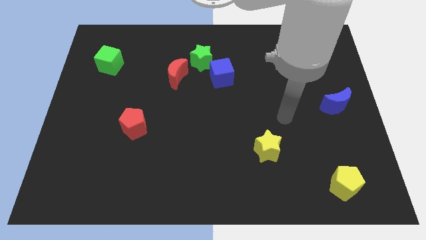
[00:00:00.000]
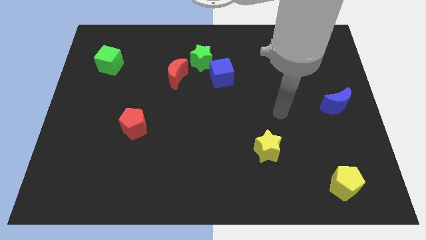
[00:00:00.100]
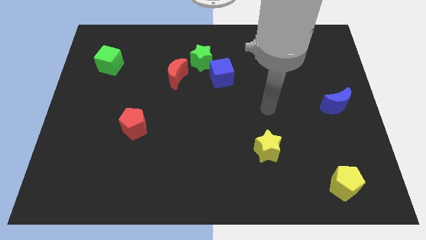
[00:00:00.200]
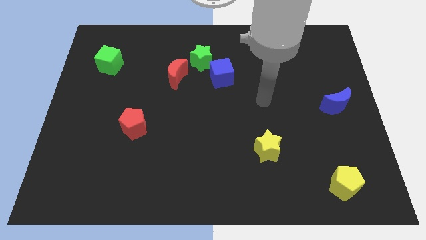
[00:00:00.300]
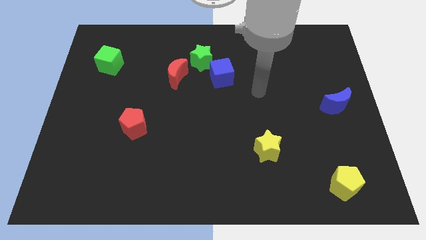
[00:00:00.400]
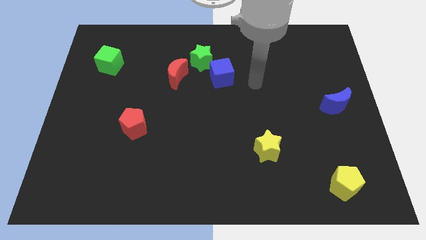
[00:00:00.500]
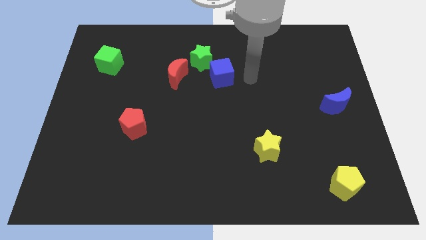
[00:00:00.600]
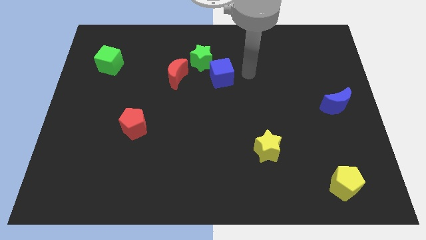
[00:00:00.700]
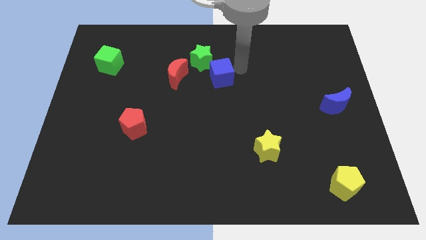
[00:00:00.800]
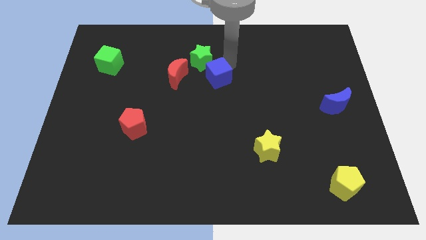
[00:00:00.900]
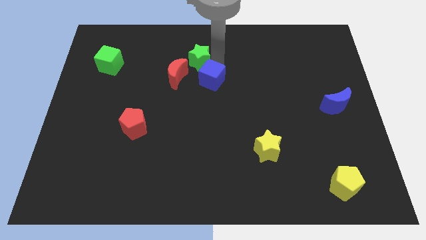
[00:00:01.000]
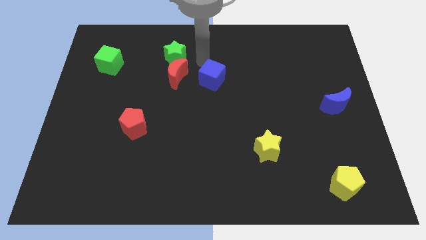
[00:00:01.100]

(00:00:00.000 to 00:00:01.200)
pull the blue cube apart from the green star

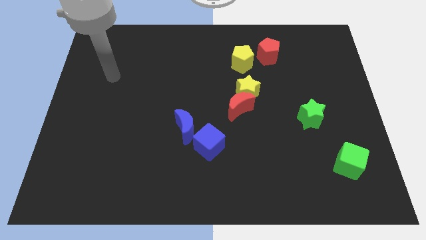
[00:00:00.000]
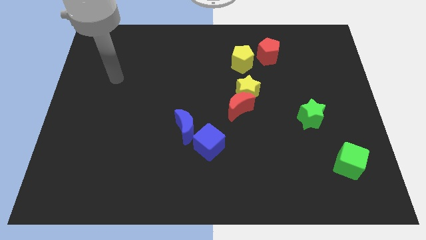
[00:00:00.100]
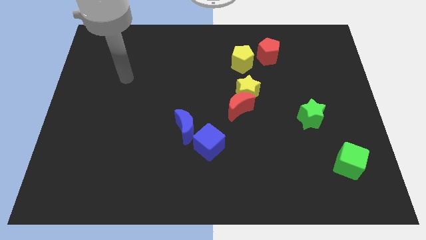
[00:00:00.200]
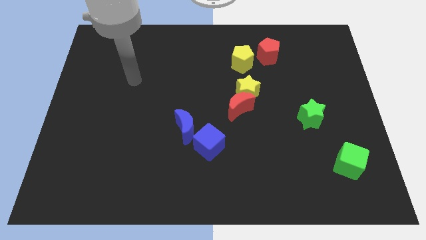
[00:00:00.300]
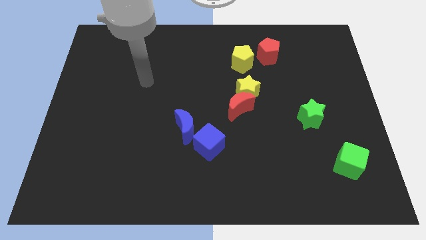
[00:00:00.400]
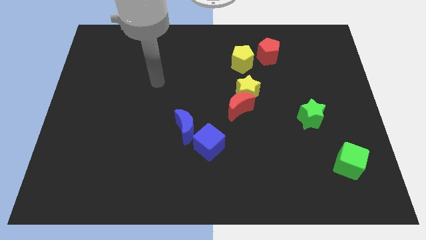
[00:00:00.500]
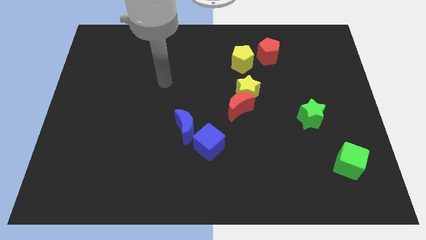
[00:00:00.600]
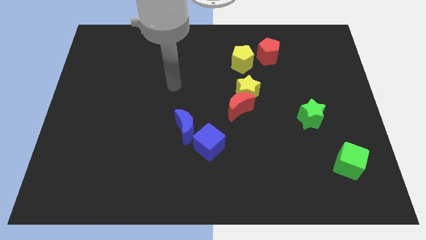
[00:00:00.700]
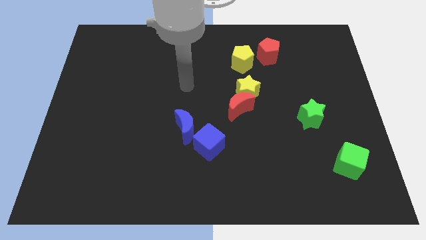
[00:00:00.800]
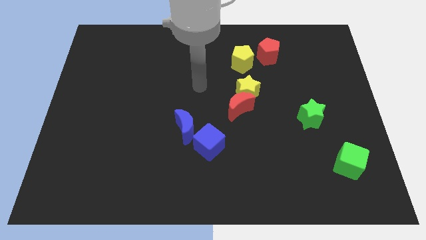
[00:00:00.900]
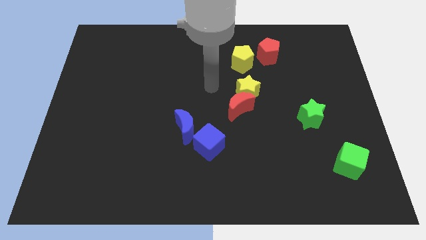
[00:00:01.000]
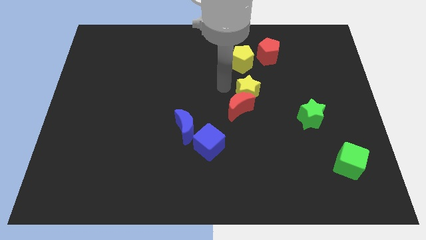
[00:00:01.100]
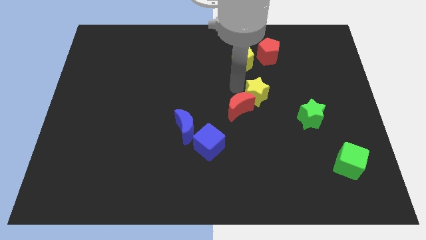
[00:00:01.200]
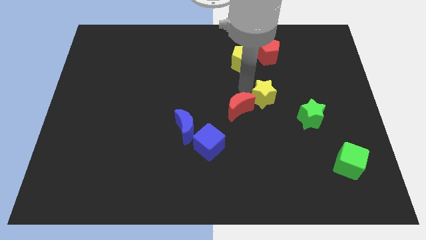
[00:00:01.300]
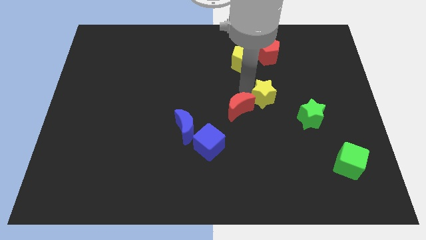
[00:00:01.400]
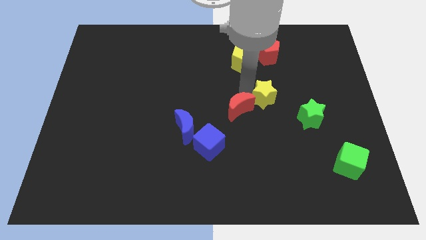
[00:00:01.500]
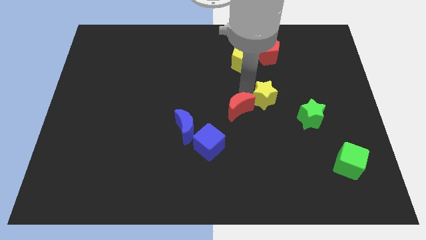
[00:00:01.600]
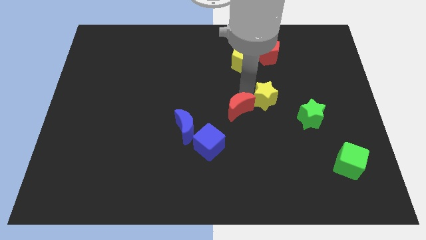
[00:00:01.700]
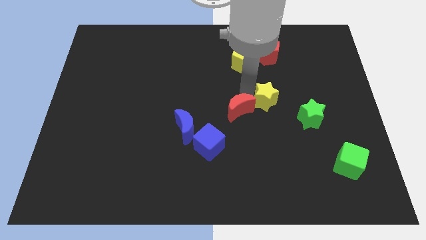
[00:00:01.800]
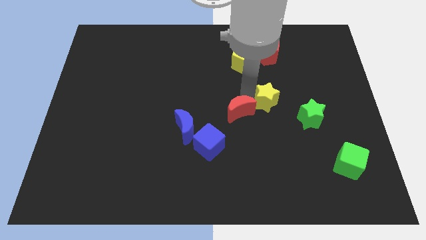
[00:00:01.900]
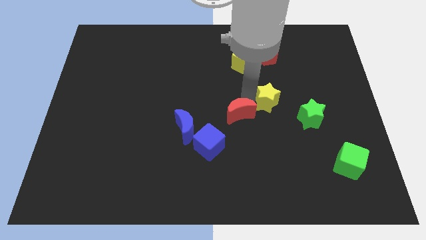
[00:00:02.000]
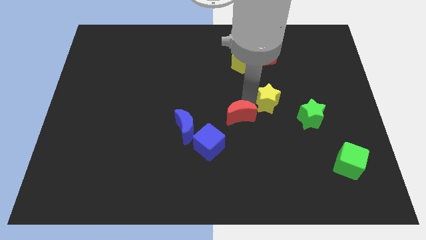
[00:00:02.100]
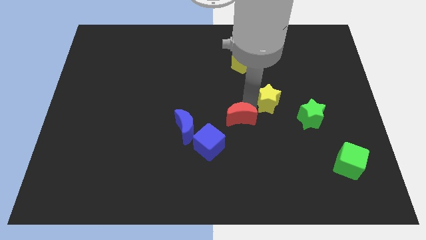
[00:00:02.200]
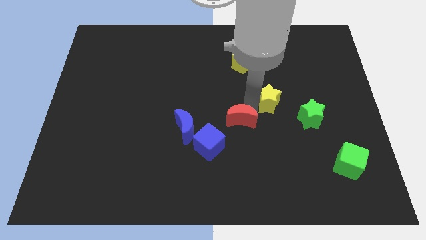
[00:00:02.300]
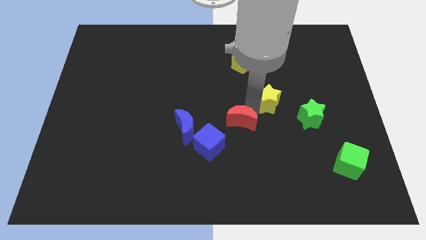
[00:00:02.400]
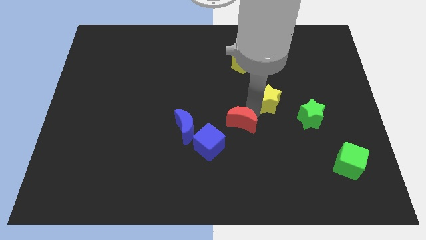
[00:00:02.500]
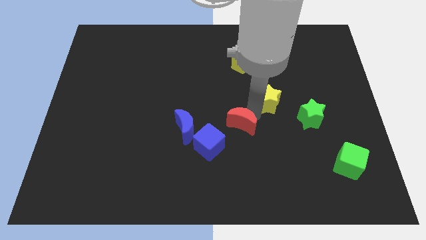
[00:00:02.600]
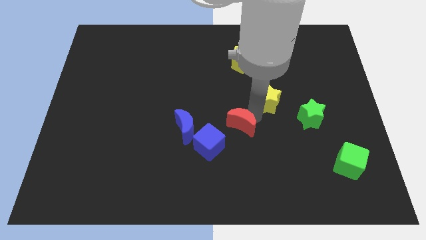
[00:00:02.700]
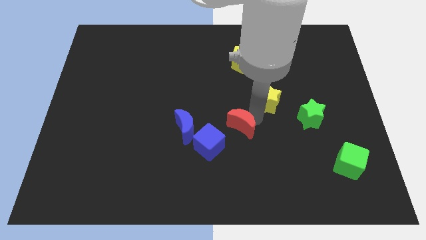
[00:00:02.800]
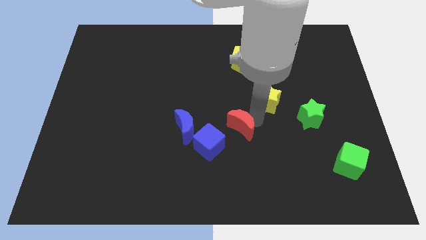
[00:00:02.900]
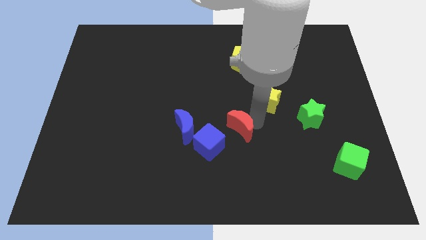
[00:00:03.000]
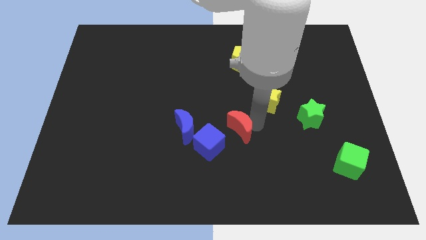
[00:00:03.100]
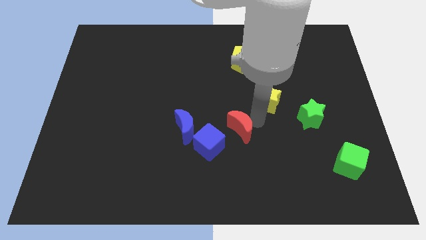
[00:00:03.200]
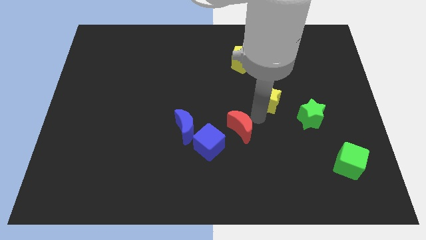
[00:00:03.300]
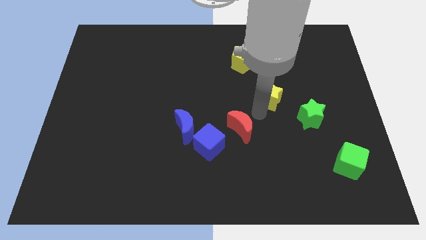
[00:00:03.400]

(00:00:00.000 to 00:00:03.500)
pull the red moon apart from the yellow star

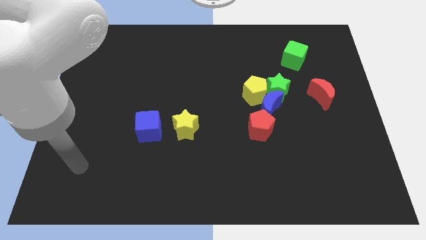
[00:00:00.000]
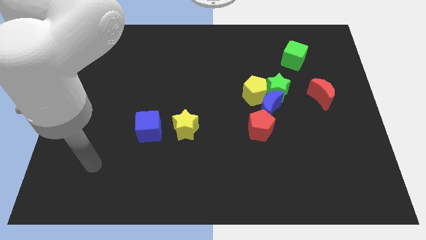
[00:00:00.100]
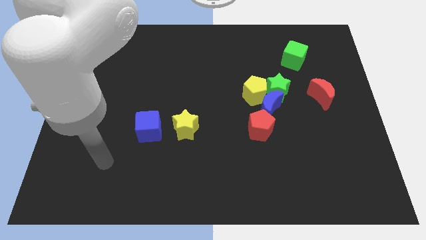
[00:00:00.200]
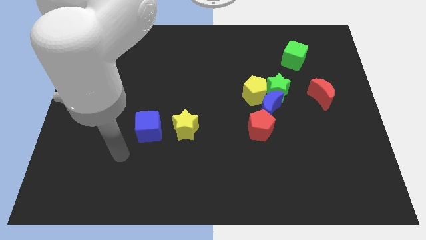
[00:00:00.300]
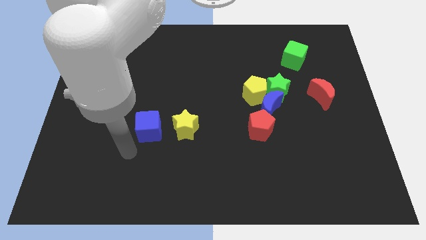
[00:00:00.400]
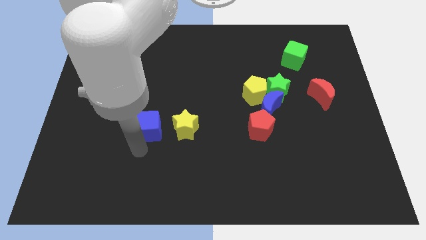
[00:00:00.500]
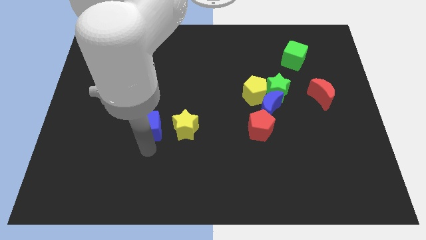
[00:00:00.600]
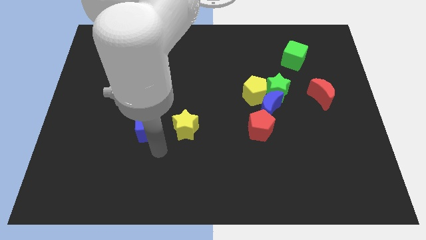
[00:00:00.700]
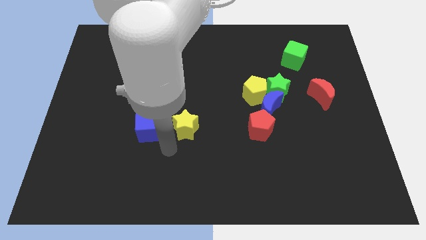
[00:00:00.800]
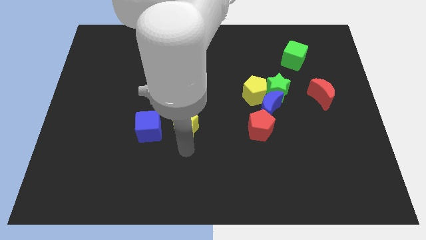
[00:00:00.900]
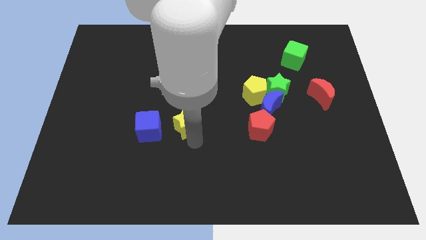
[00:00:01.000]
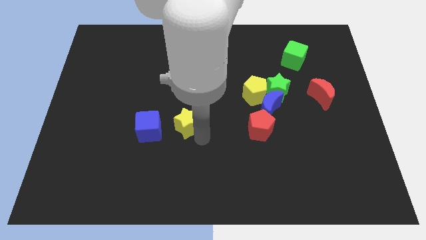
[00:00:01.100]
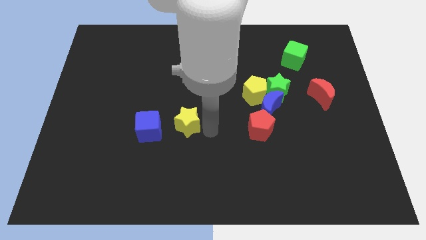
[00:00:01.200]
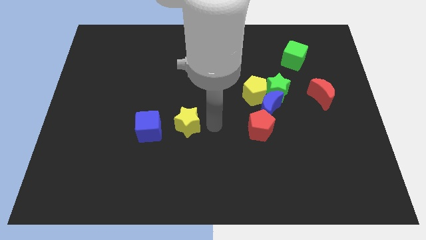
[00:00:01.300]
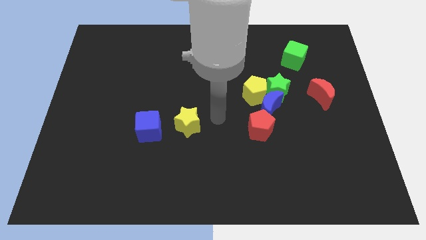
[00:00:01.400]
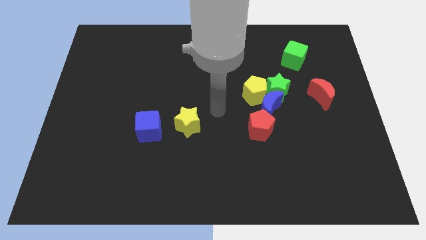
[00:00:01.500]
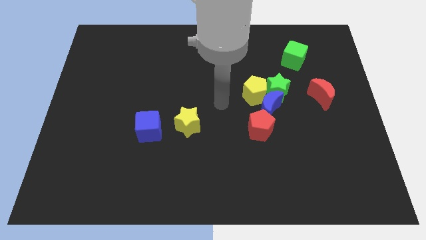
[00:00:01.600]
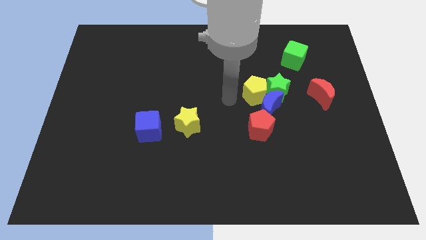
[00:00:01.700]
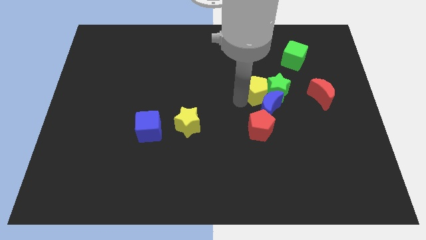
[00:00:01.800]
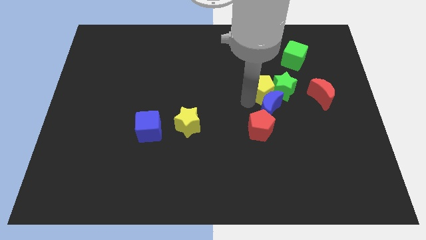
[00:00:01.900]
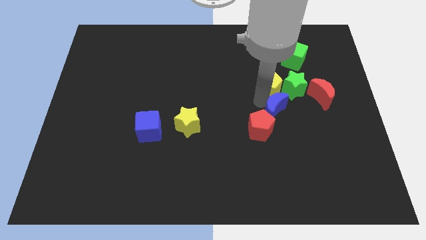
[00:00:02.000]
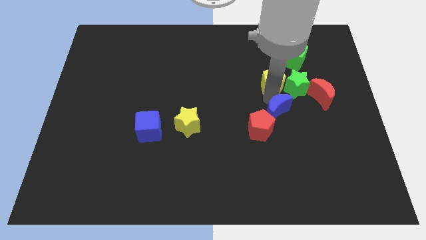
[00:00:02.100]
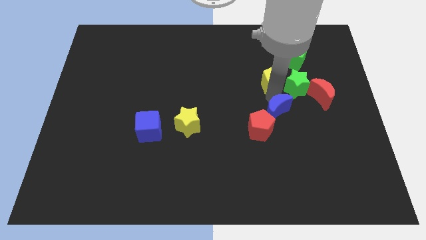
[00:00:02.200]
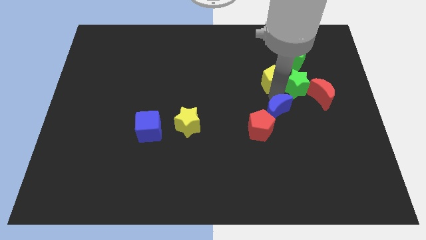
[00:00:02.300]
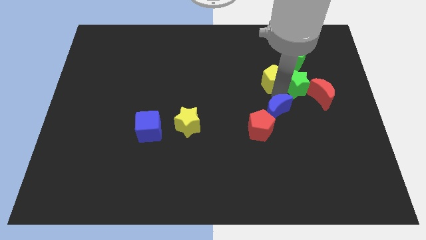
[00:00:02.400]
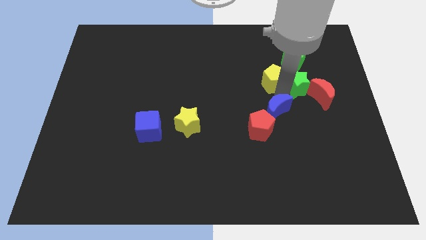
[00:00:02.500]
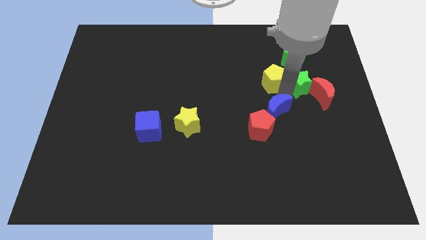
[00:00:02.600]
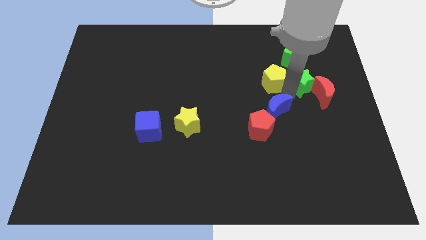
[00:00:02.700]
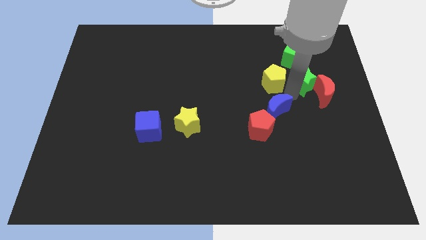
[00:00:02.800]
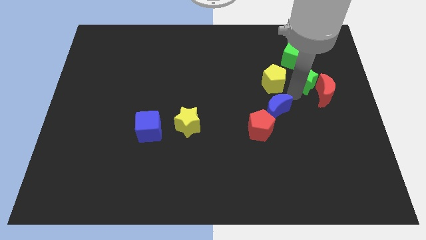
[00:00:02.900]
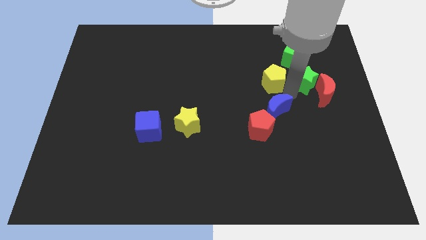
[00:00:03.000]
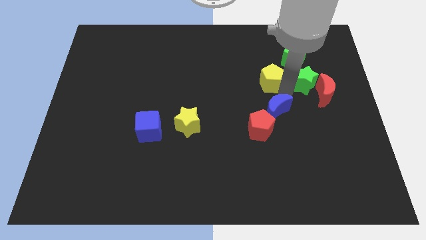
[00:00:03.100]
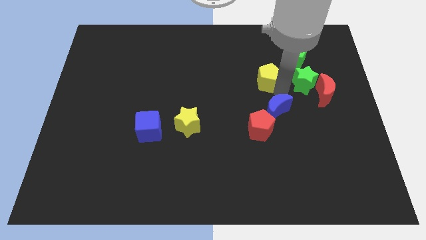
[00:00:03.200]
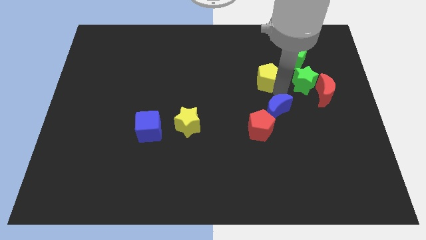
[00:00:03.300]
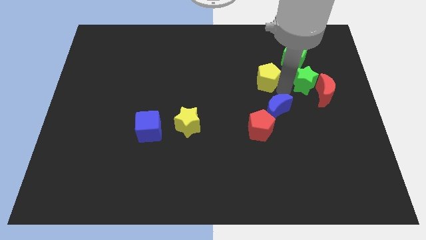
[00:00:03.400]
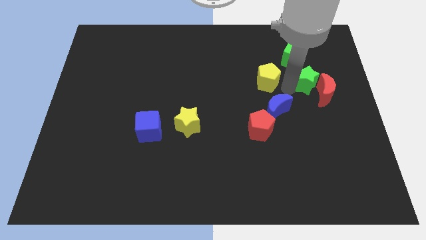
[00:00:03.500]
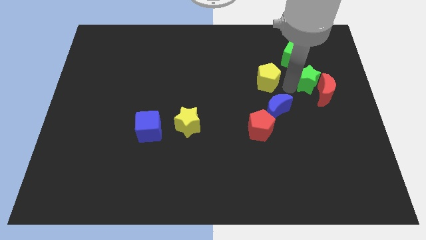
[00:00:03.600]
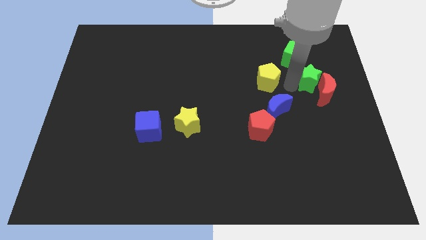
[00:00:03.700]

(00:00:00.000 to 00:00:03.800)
move the green star away from the yellow pentagon and blue moon

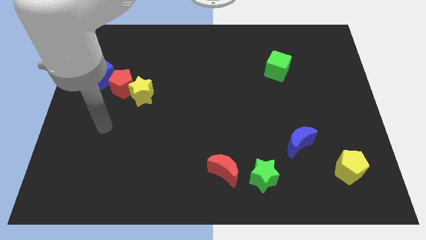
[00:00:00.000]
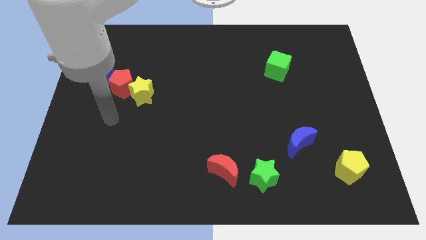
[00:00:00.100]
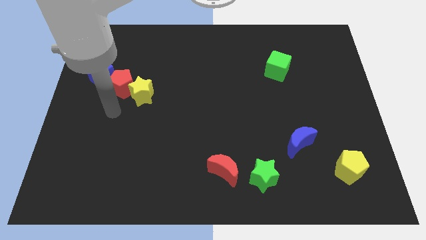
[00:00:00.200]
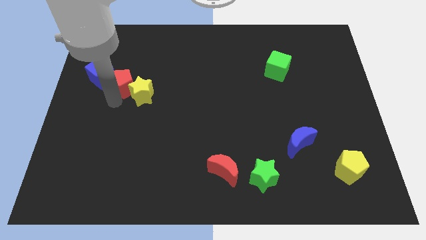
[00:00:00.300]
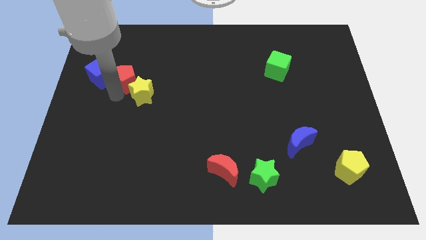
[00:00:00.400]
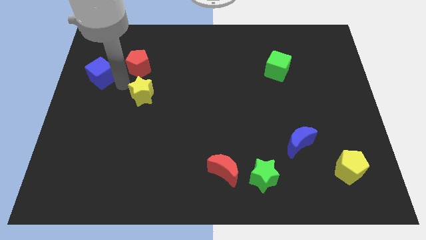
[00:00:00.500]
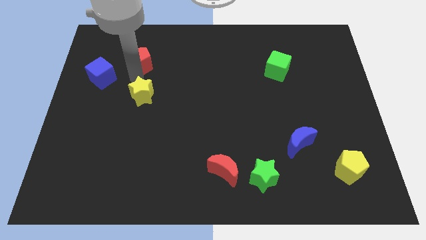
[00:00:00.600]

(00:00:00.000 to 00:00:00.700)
pull the yellow star apart from the red pentagon
